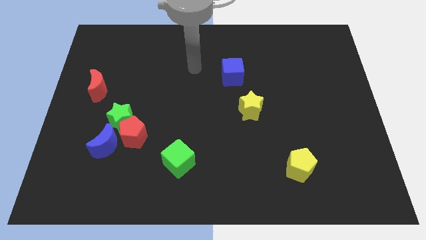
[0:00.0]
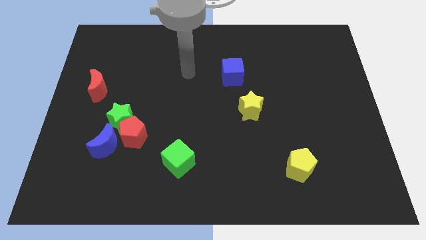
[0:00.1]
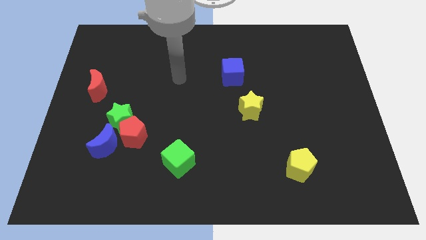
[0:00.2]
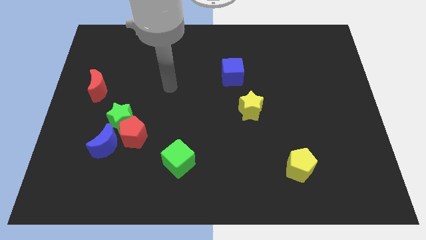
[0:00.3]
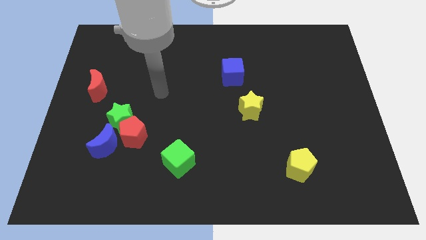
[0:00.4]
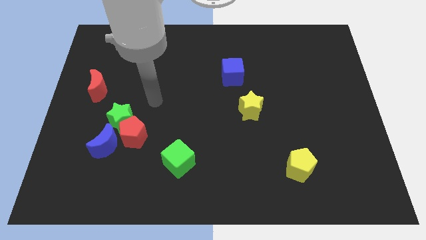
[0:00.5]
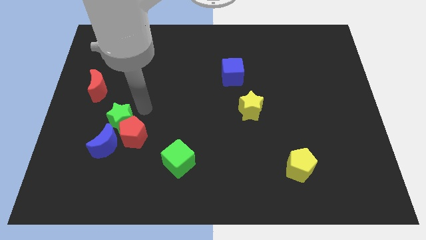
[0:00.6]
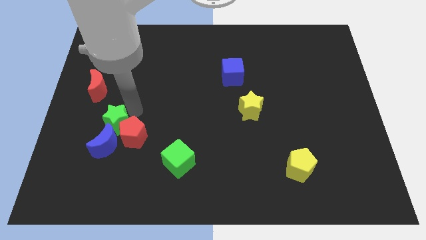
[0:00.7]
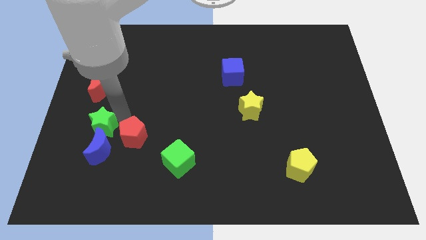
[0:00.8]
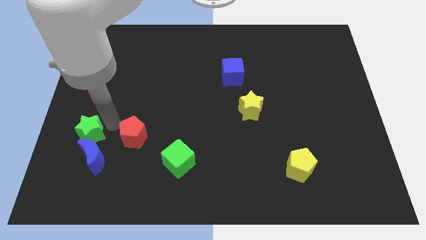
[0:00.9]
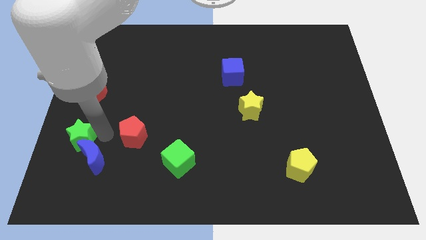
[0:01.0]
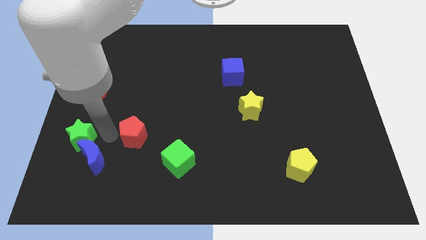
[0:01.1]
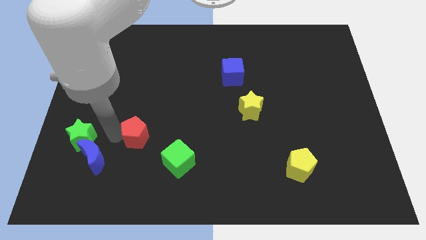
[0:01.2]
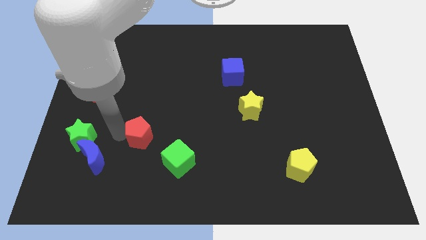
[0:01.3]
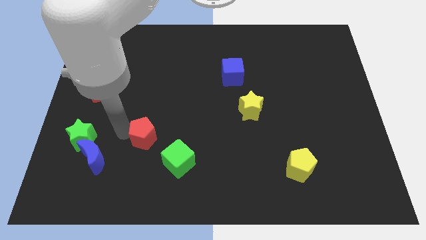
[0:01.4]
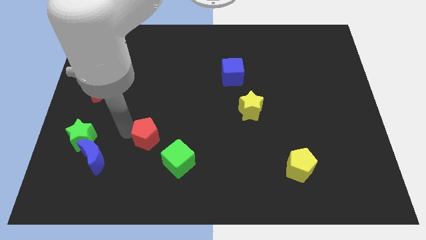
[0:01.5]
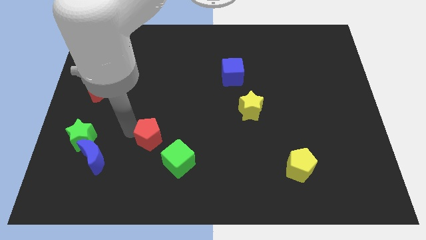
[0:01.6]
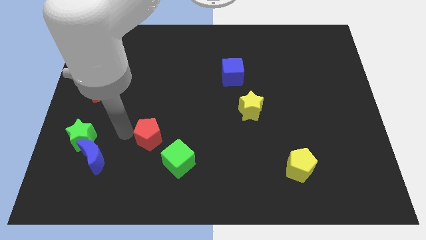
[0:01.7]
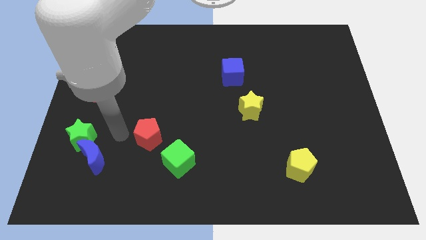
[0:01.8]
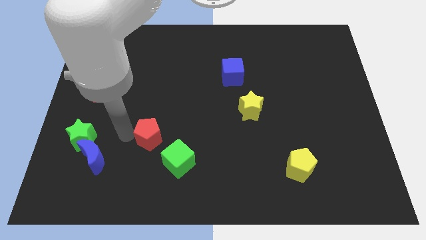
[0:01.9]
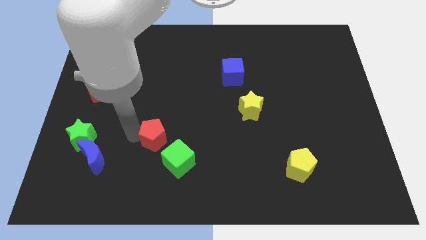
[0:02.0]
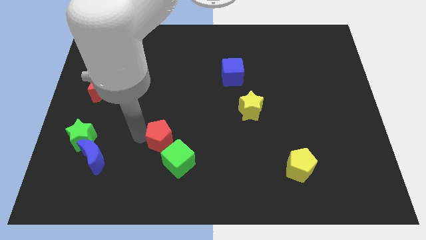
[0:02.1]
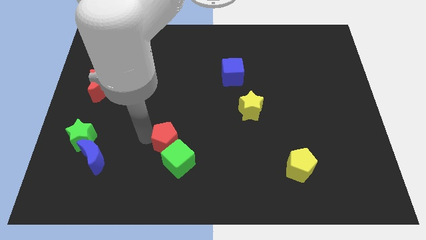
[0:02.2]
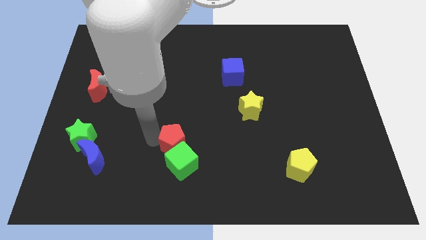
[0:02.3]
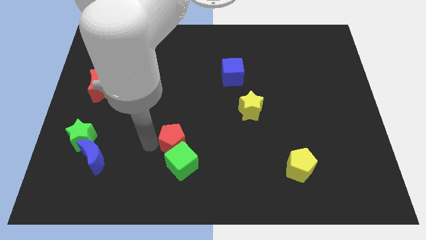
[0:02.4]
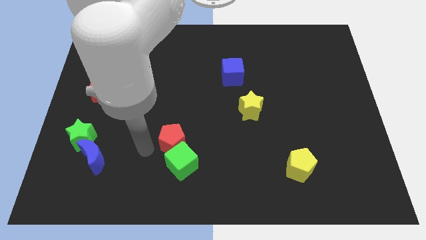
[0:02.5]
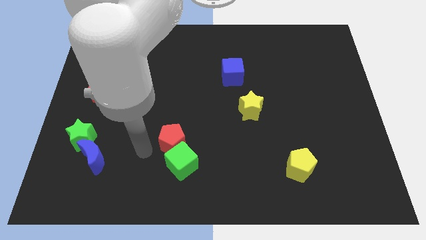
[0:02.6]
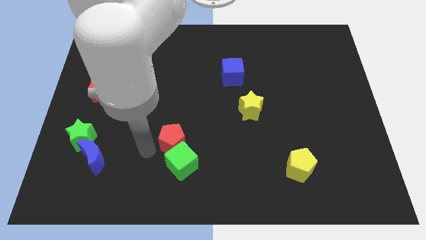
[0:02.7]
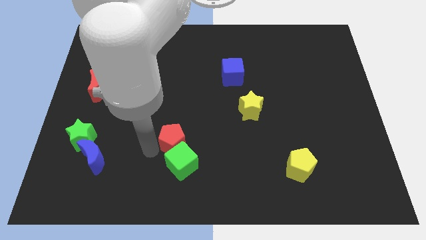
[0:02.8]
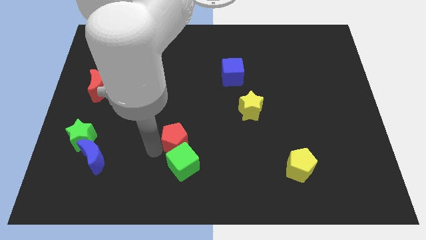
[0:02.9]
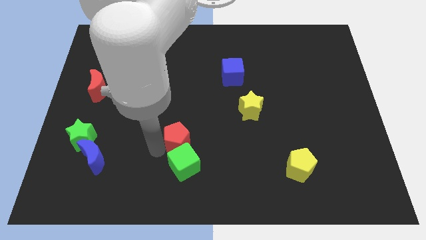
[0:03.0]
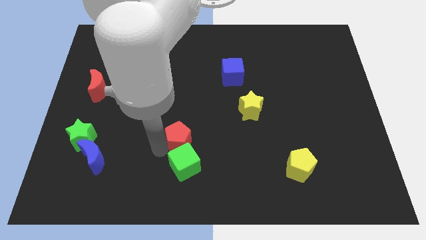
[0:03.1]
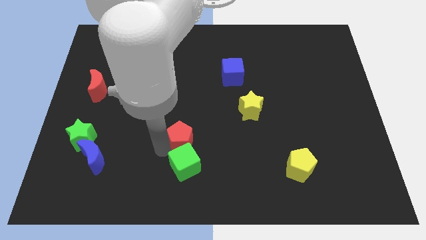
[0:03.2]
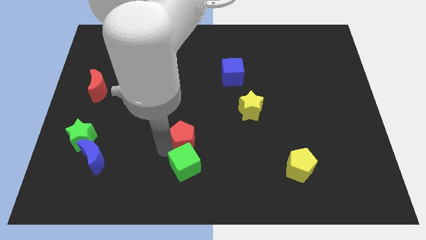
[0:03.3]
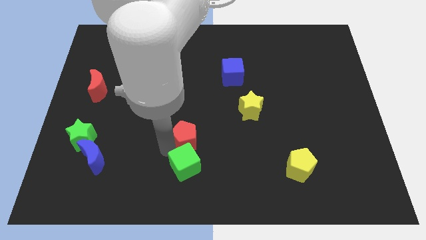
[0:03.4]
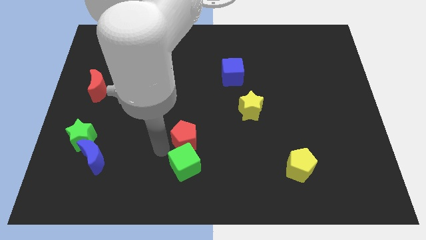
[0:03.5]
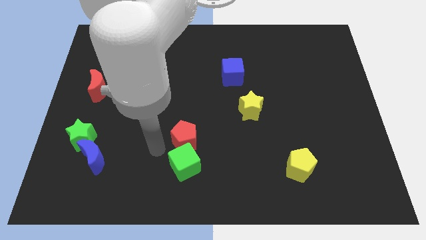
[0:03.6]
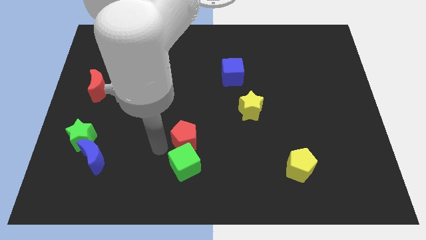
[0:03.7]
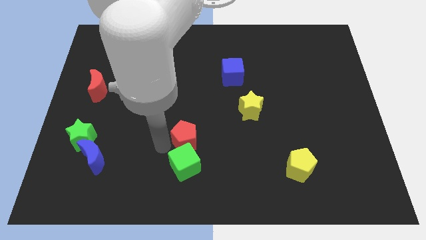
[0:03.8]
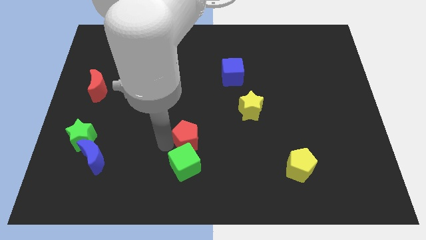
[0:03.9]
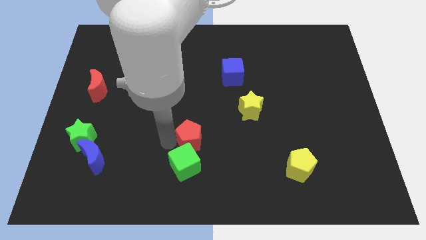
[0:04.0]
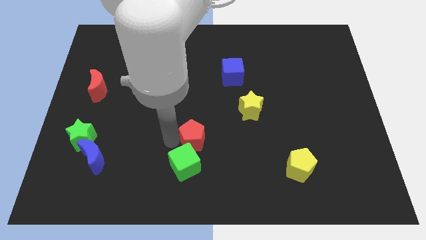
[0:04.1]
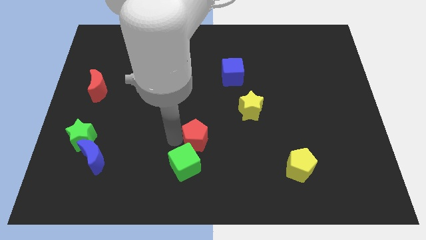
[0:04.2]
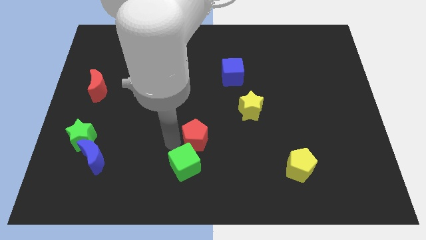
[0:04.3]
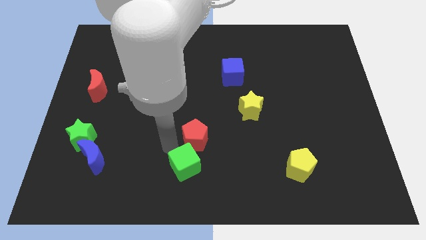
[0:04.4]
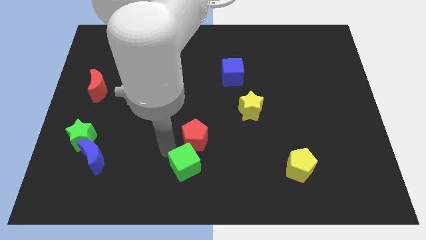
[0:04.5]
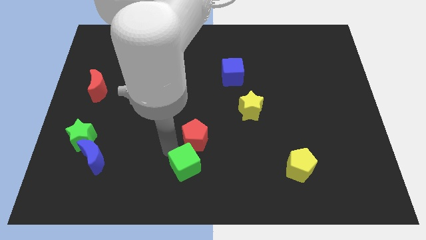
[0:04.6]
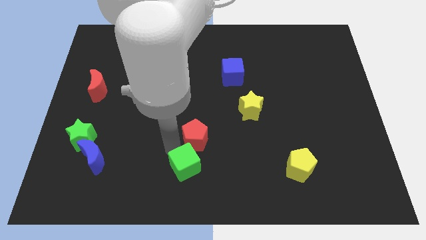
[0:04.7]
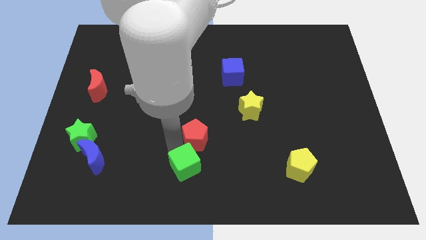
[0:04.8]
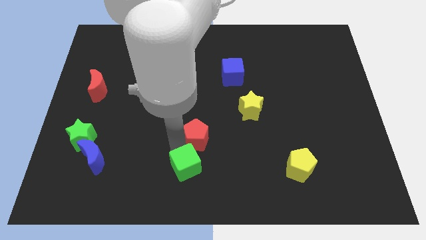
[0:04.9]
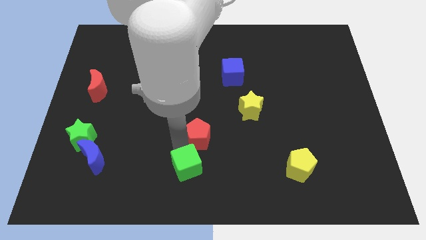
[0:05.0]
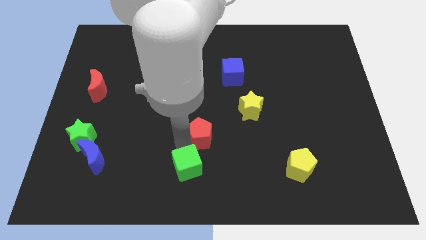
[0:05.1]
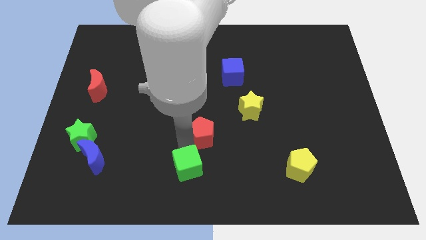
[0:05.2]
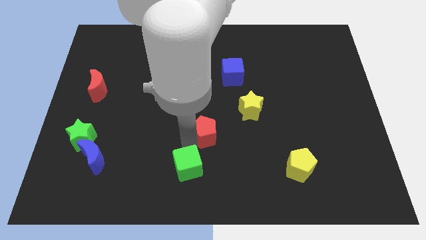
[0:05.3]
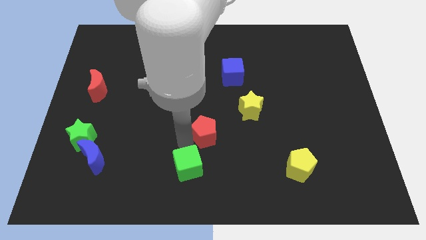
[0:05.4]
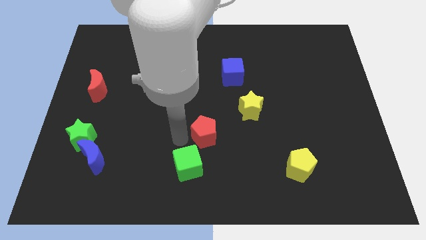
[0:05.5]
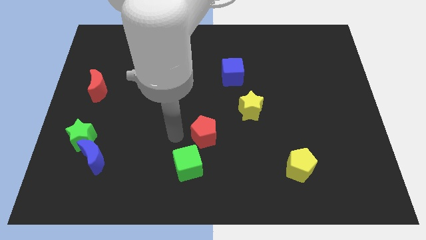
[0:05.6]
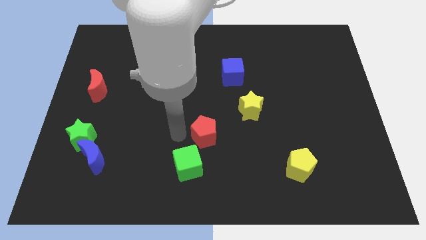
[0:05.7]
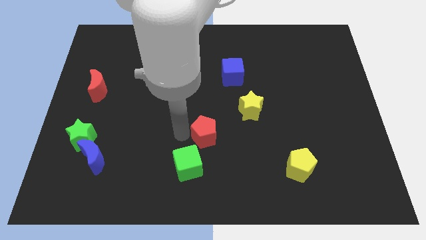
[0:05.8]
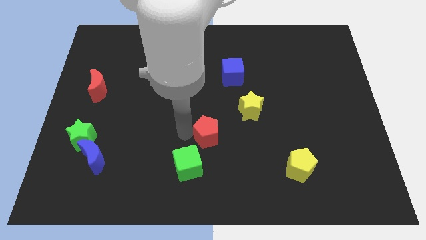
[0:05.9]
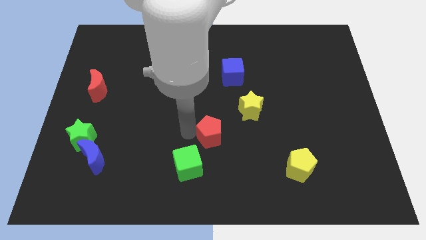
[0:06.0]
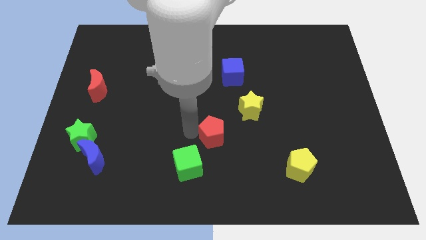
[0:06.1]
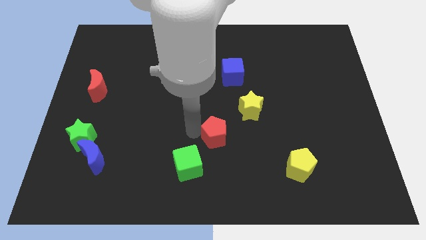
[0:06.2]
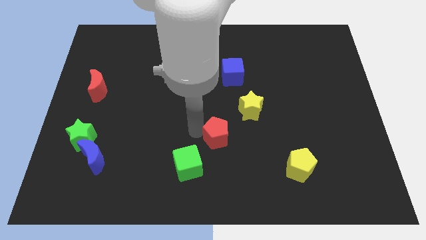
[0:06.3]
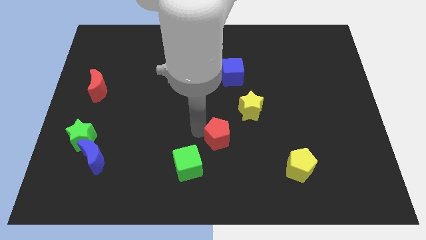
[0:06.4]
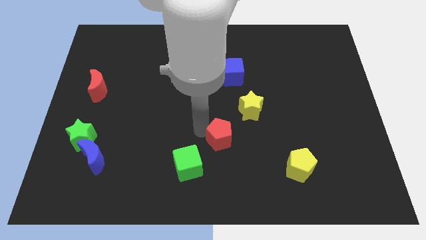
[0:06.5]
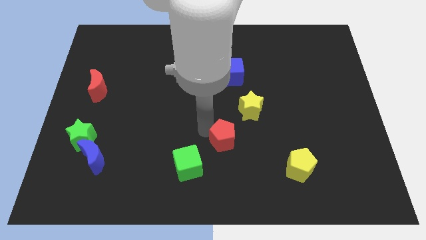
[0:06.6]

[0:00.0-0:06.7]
slide the red pentagon to the right

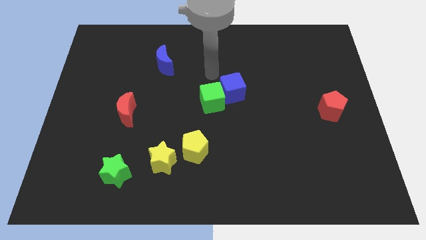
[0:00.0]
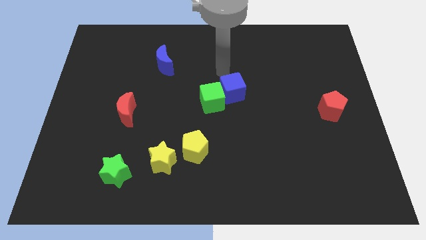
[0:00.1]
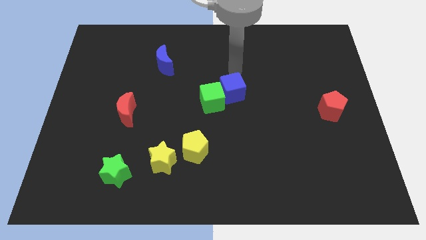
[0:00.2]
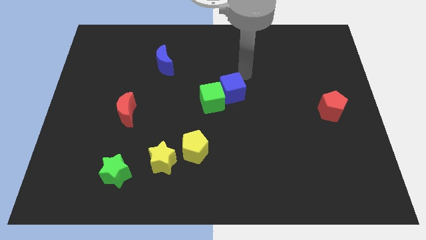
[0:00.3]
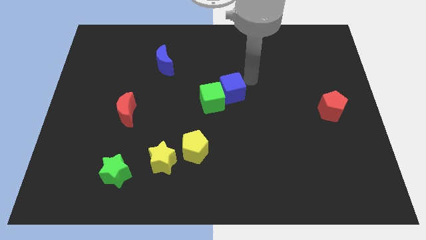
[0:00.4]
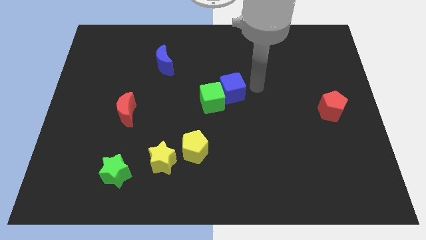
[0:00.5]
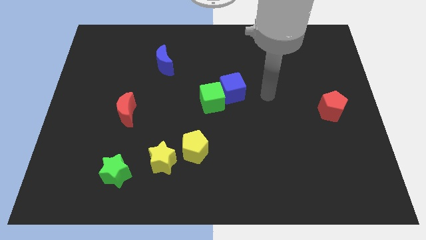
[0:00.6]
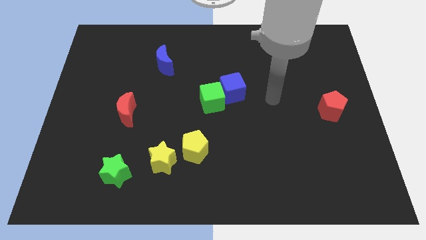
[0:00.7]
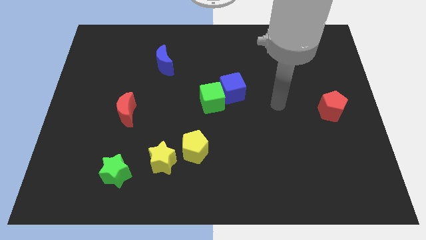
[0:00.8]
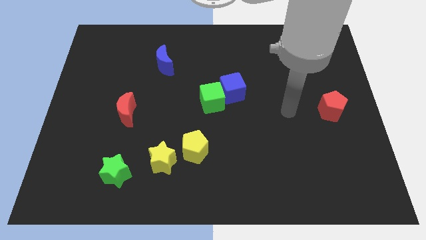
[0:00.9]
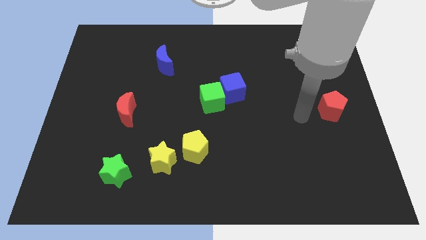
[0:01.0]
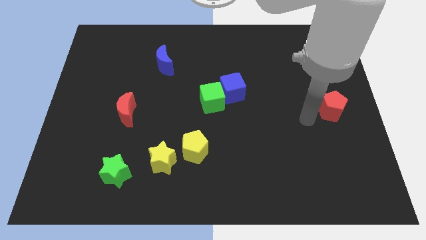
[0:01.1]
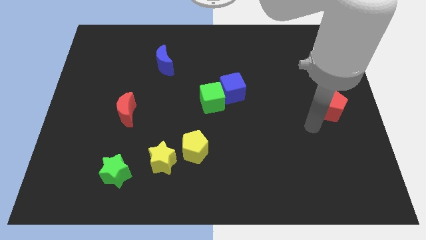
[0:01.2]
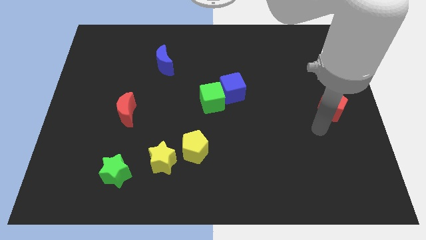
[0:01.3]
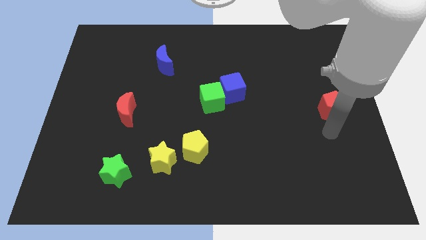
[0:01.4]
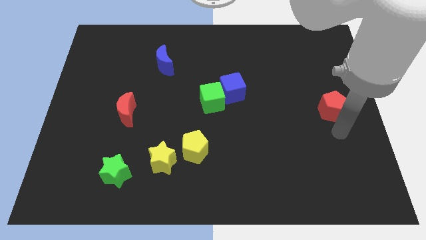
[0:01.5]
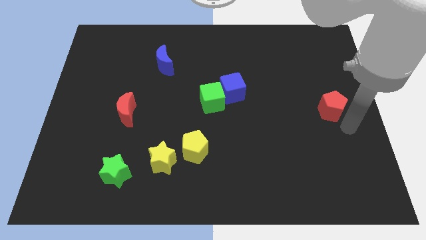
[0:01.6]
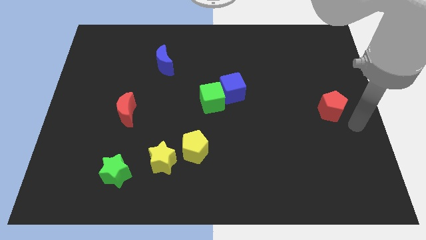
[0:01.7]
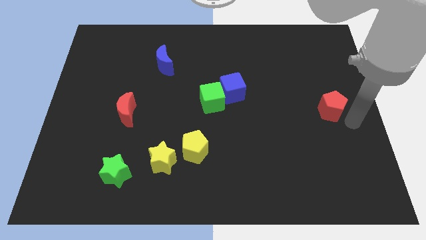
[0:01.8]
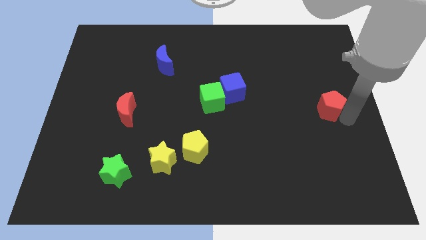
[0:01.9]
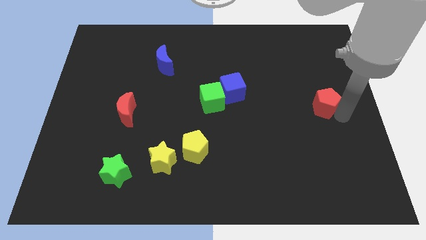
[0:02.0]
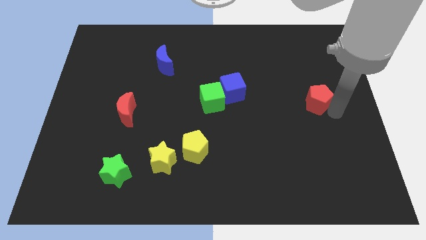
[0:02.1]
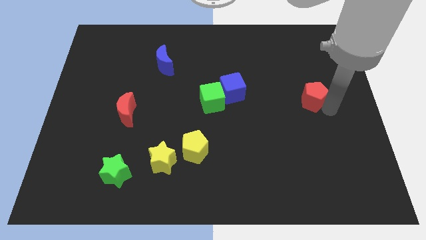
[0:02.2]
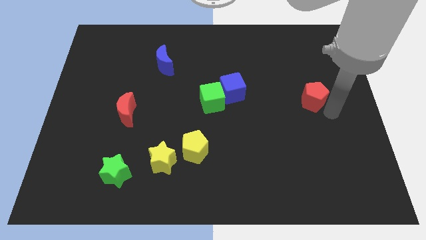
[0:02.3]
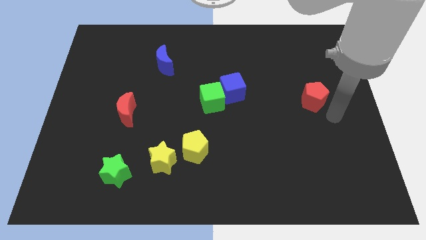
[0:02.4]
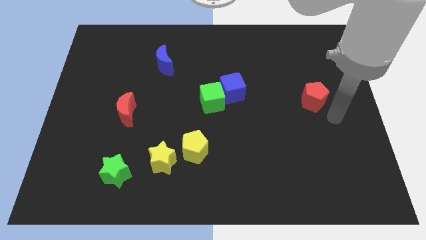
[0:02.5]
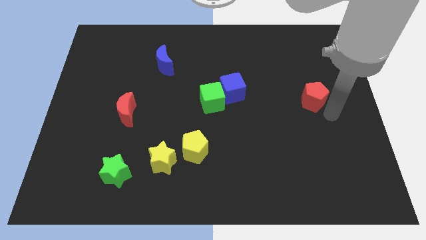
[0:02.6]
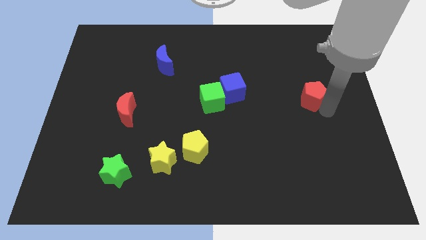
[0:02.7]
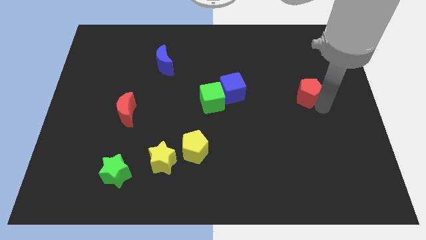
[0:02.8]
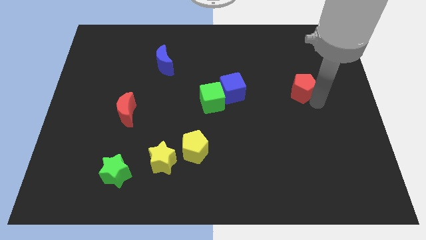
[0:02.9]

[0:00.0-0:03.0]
push the red pentagon up and to the left diagonally slightly
